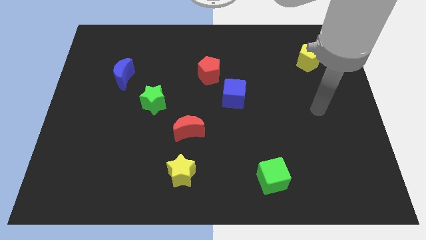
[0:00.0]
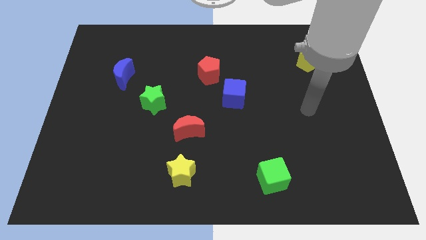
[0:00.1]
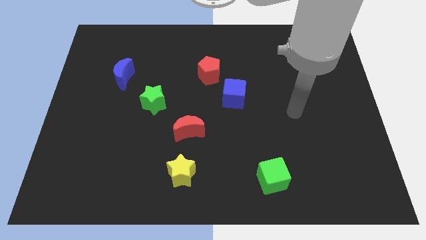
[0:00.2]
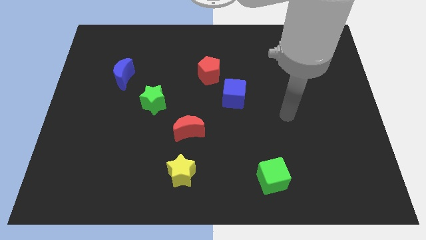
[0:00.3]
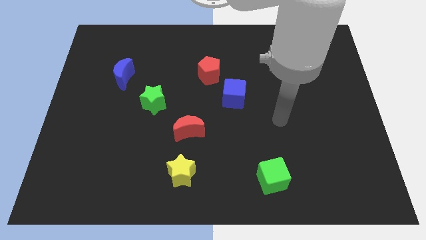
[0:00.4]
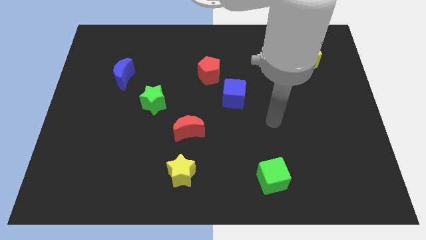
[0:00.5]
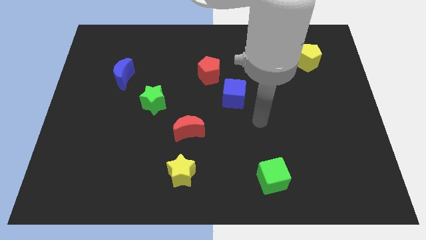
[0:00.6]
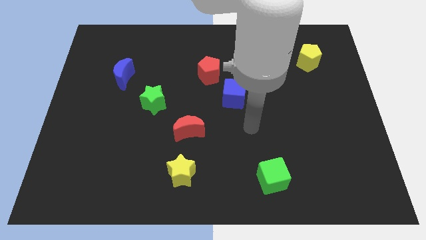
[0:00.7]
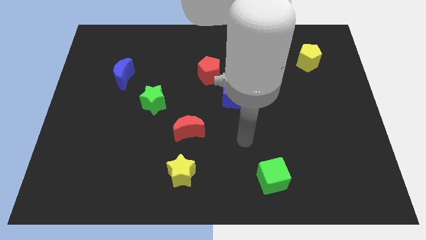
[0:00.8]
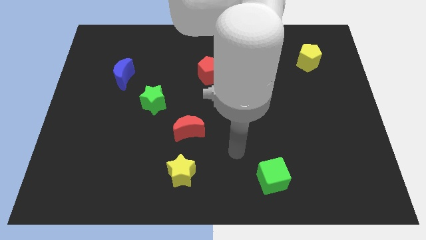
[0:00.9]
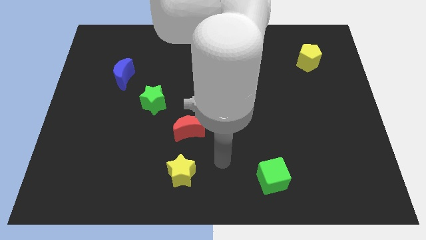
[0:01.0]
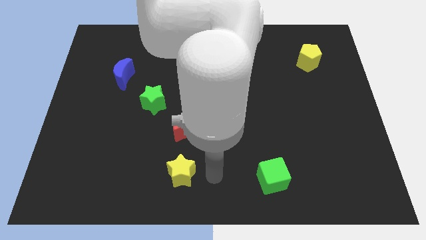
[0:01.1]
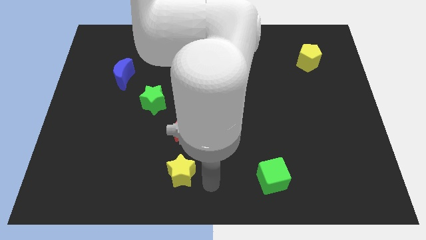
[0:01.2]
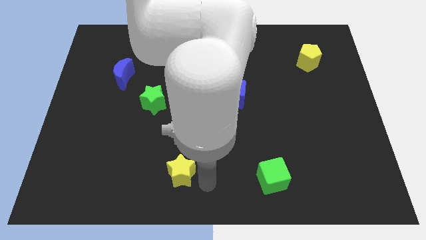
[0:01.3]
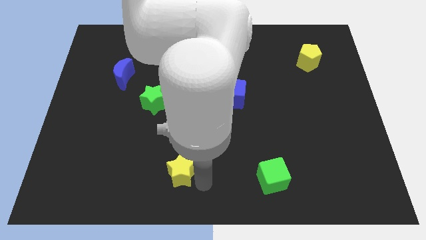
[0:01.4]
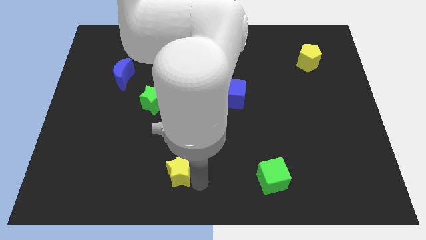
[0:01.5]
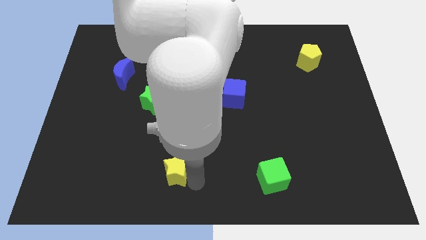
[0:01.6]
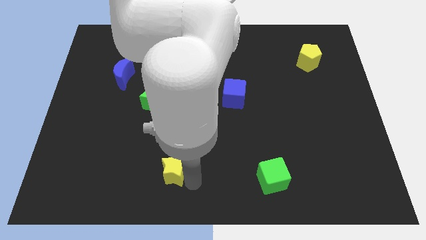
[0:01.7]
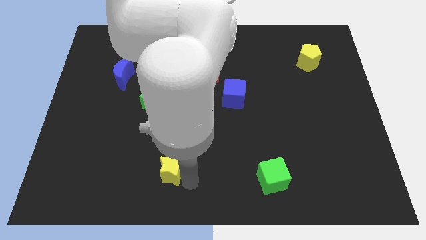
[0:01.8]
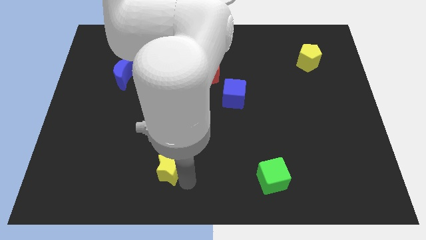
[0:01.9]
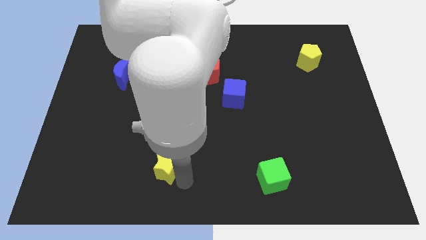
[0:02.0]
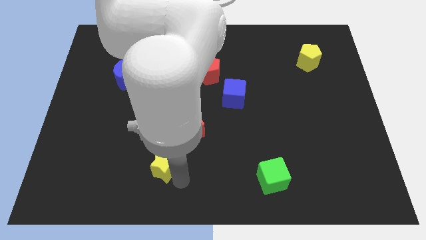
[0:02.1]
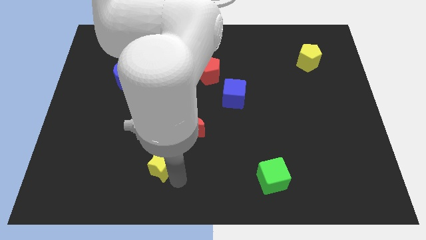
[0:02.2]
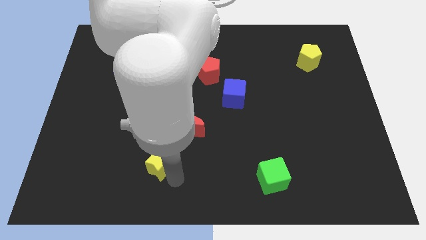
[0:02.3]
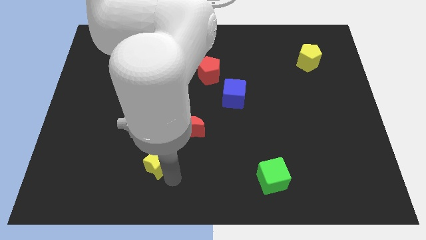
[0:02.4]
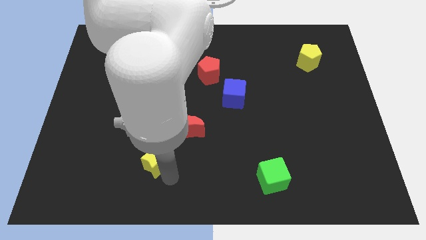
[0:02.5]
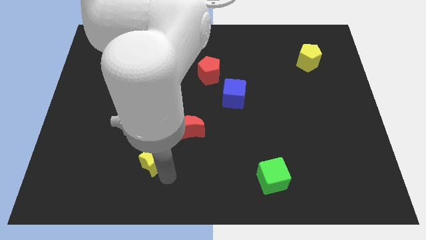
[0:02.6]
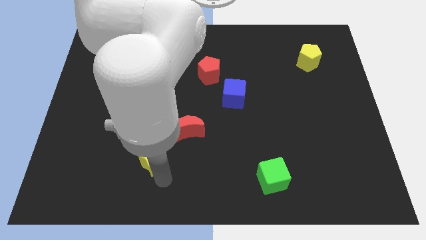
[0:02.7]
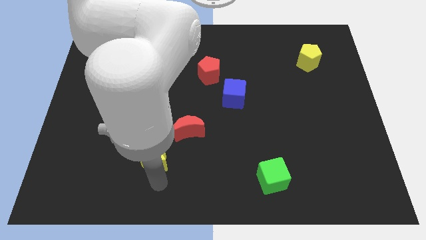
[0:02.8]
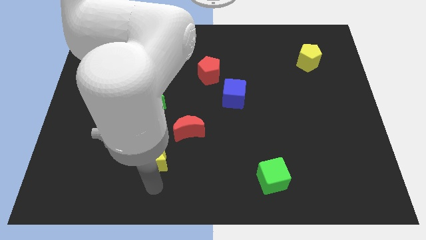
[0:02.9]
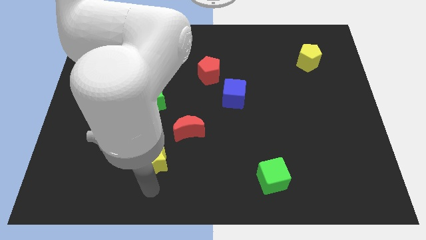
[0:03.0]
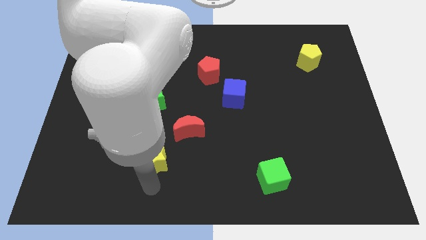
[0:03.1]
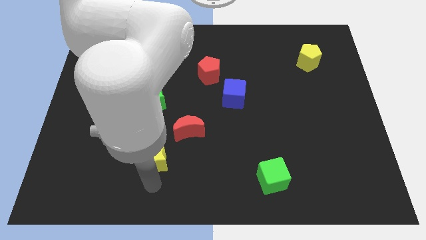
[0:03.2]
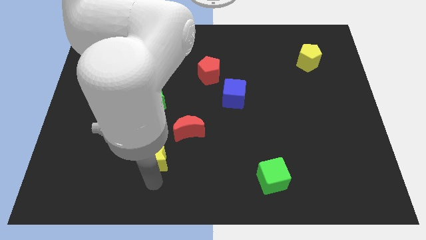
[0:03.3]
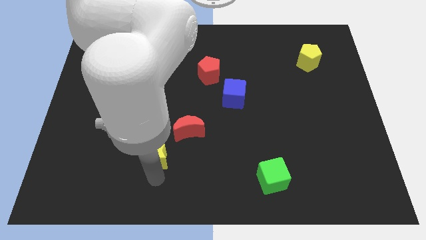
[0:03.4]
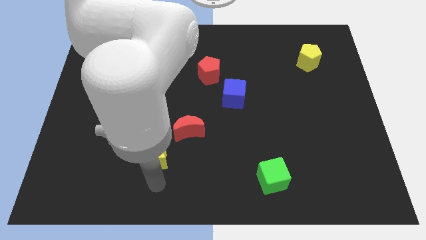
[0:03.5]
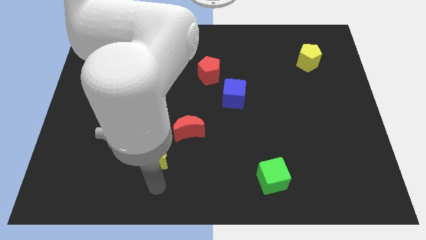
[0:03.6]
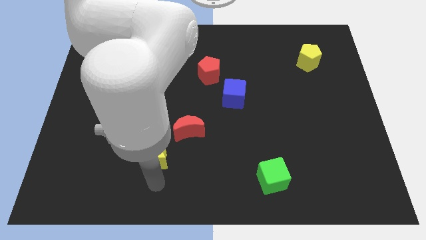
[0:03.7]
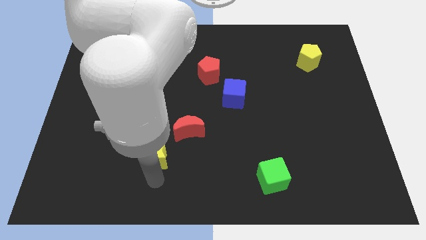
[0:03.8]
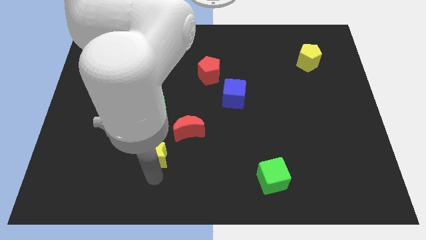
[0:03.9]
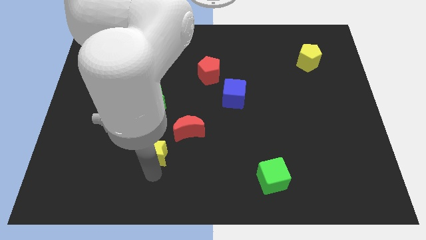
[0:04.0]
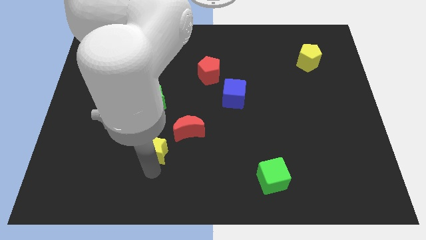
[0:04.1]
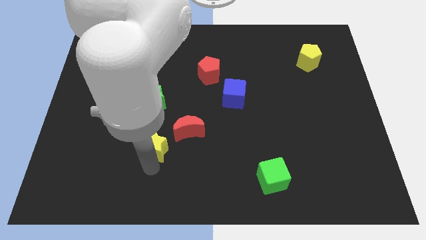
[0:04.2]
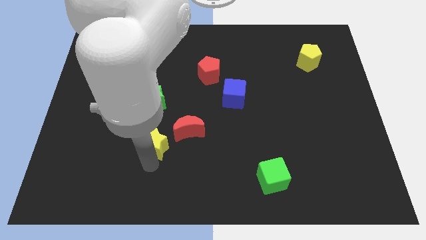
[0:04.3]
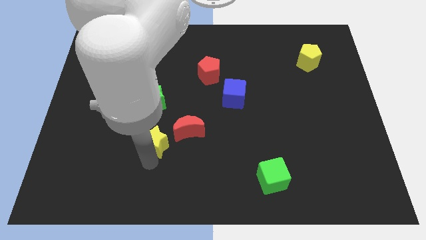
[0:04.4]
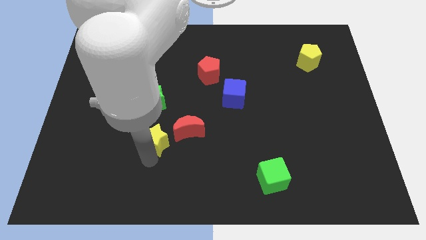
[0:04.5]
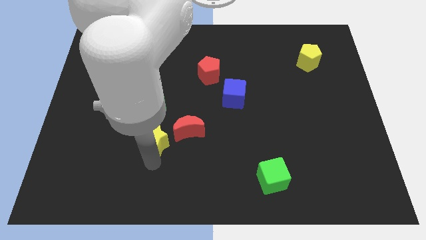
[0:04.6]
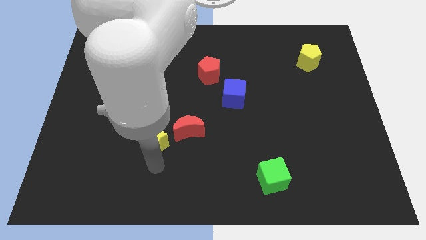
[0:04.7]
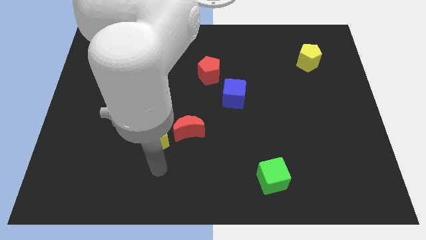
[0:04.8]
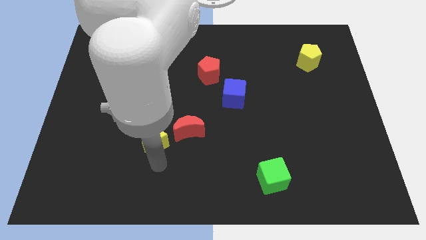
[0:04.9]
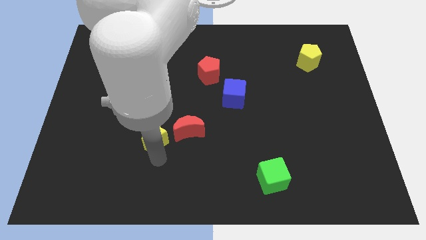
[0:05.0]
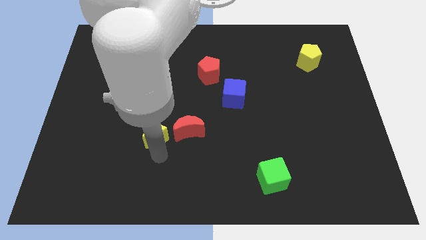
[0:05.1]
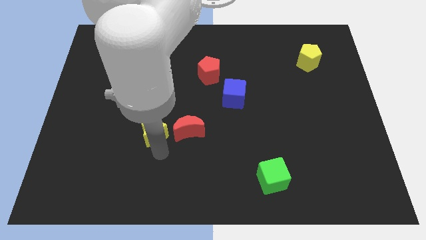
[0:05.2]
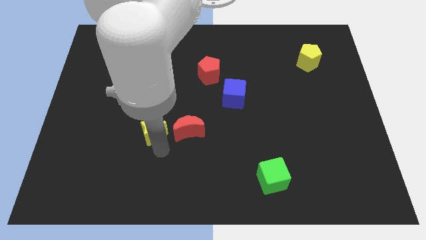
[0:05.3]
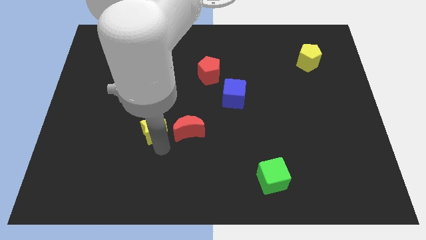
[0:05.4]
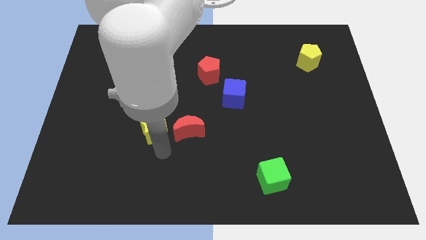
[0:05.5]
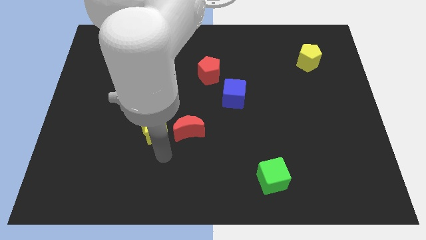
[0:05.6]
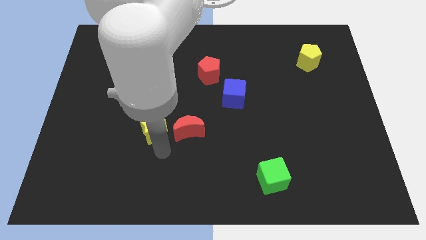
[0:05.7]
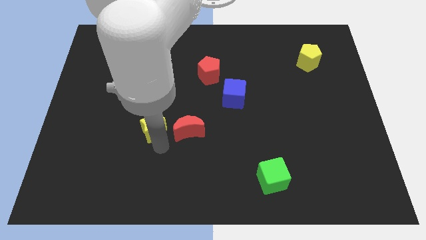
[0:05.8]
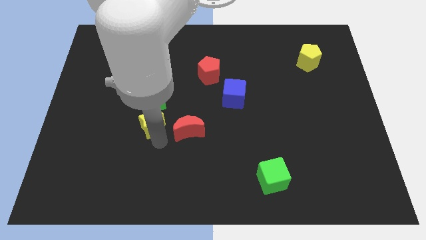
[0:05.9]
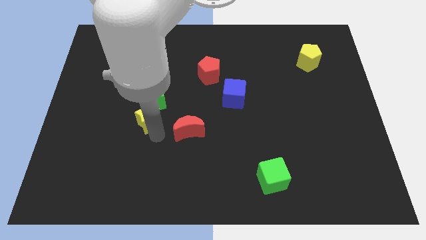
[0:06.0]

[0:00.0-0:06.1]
push the yellow star towards the green star

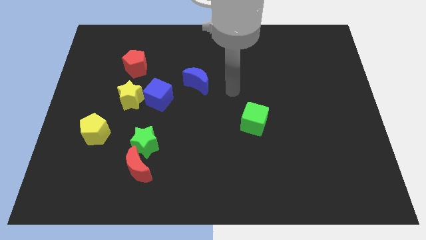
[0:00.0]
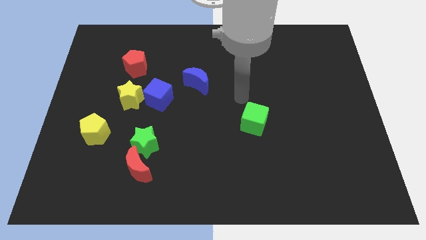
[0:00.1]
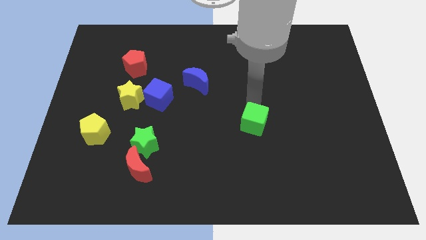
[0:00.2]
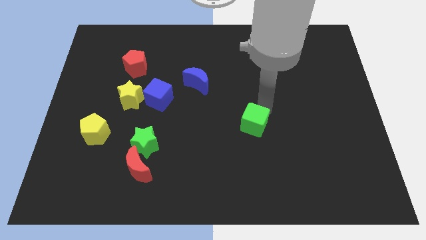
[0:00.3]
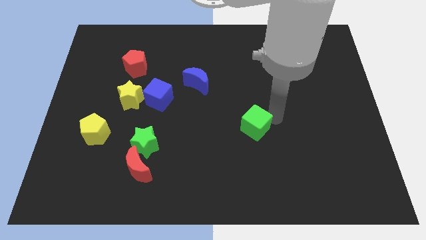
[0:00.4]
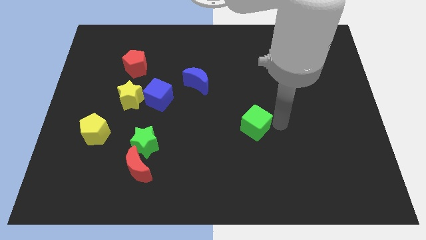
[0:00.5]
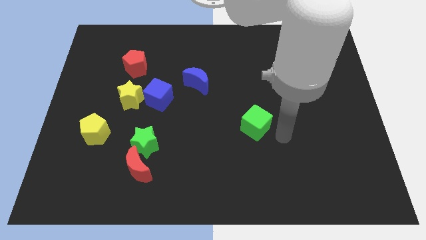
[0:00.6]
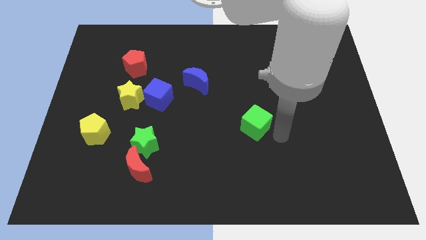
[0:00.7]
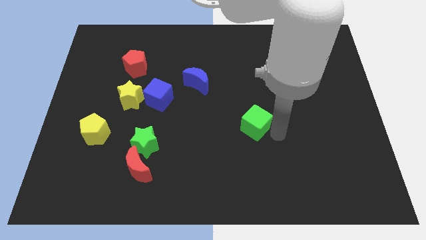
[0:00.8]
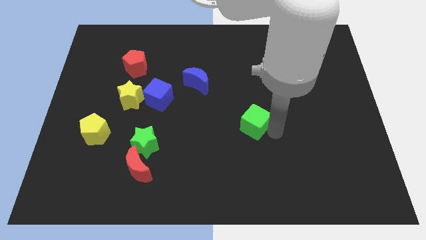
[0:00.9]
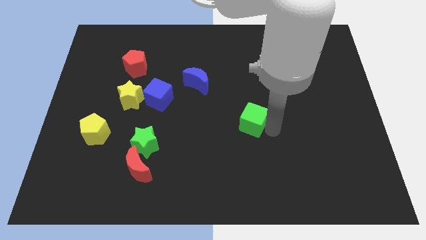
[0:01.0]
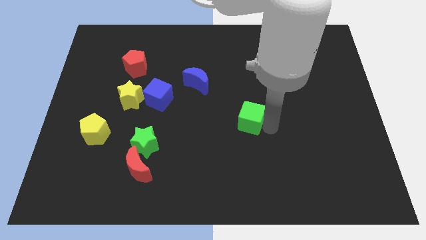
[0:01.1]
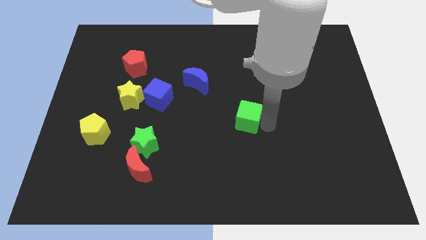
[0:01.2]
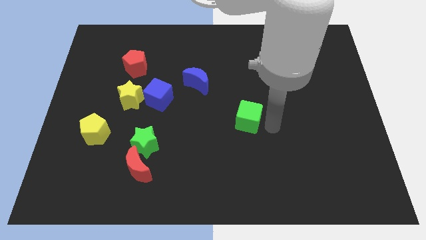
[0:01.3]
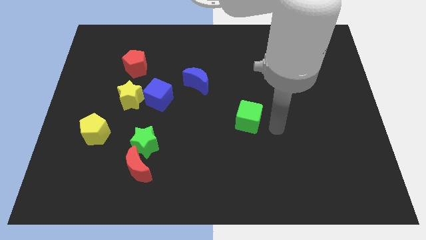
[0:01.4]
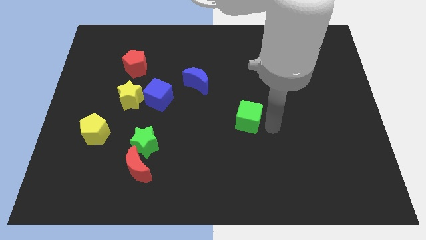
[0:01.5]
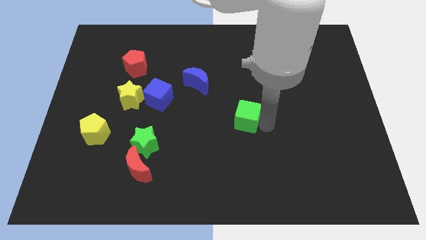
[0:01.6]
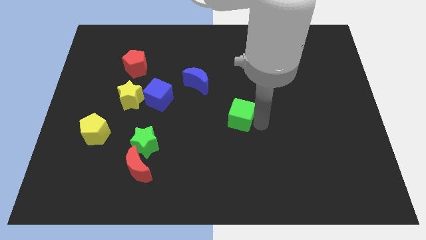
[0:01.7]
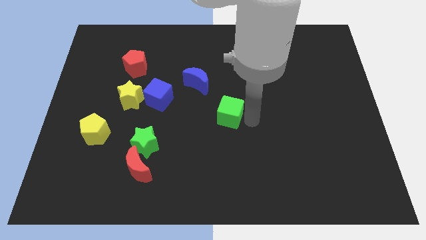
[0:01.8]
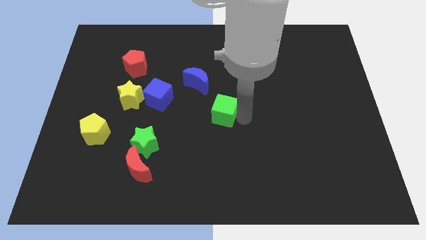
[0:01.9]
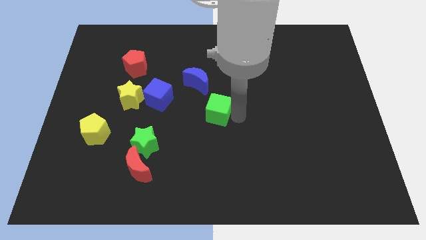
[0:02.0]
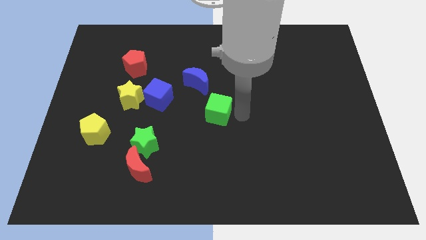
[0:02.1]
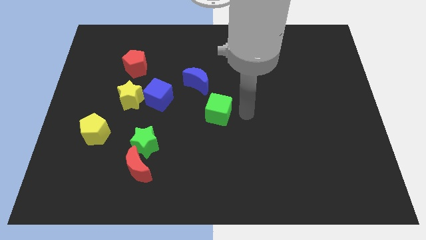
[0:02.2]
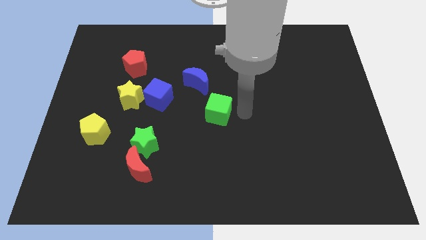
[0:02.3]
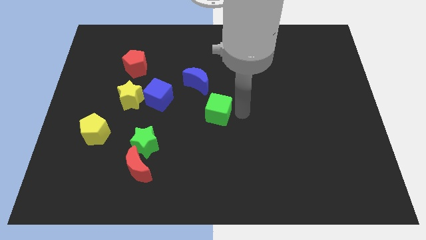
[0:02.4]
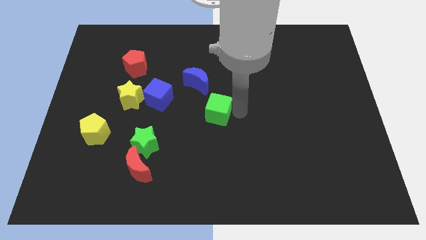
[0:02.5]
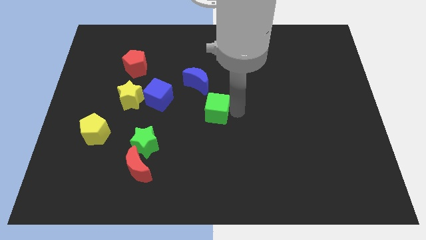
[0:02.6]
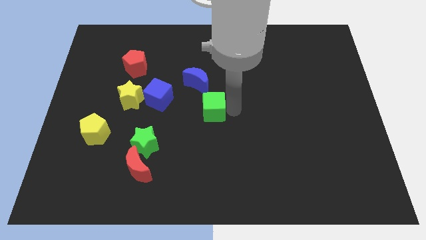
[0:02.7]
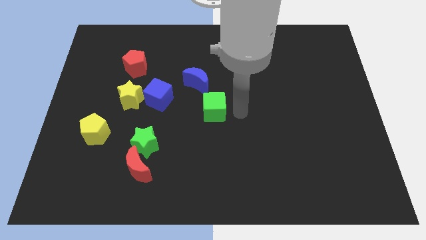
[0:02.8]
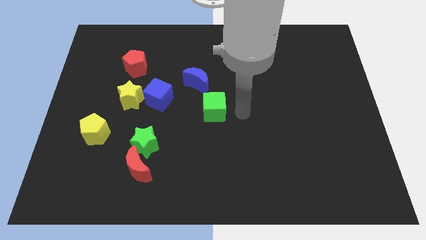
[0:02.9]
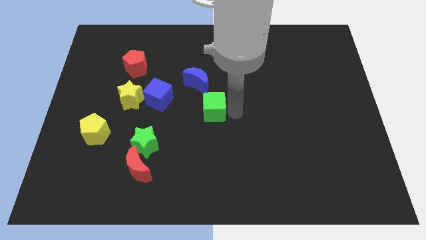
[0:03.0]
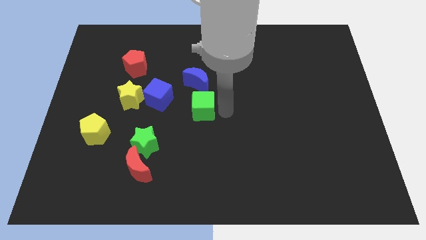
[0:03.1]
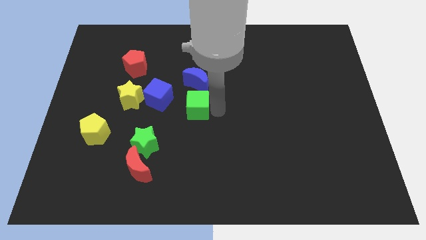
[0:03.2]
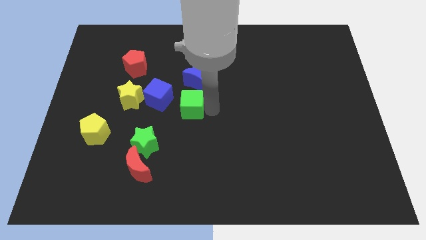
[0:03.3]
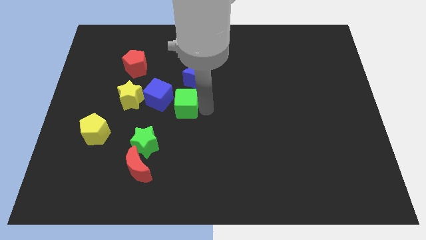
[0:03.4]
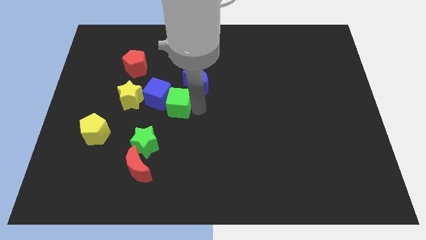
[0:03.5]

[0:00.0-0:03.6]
move the green cube towards the blue cube
